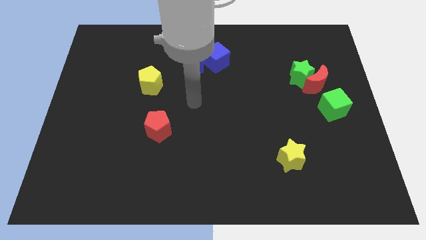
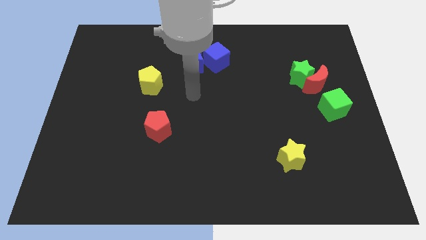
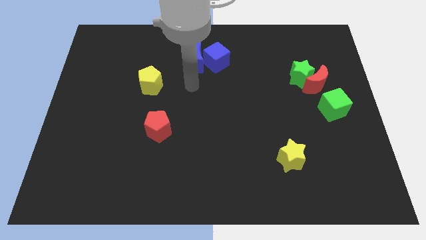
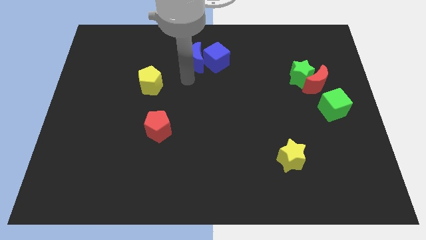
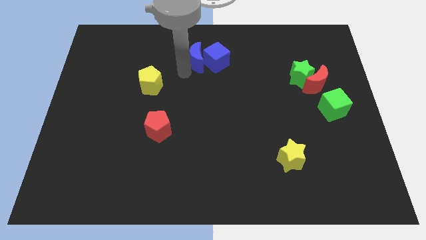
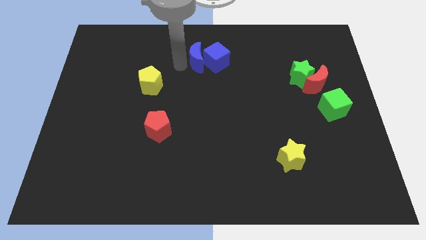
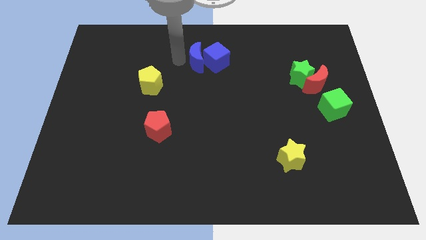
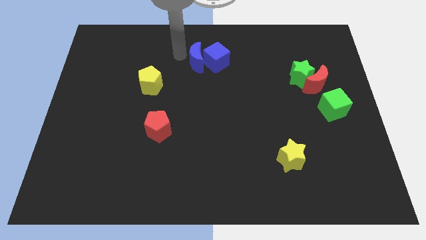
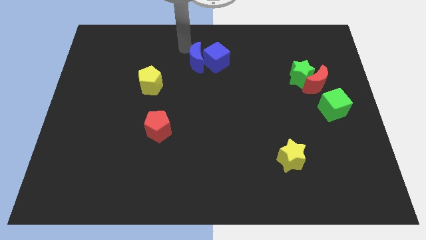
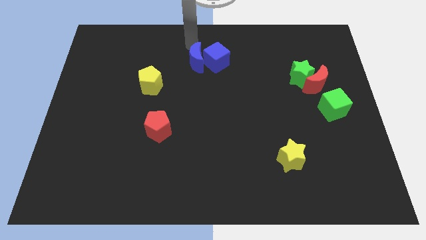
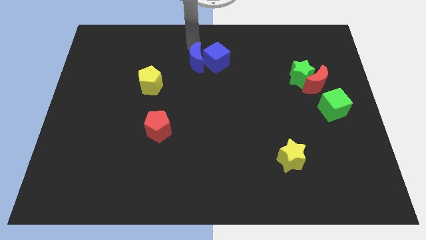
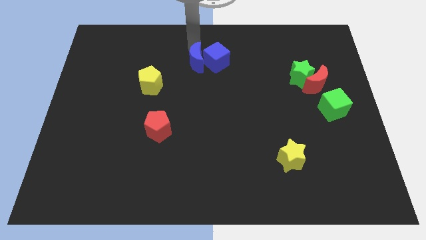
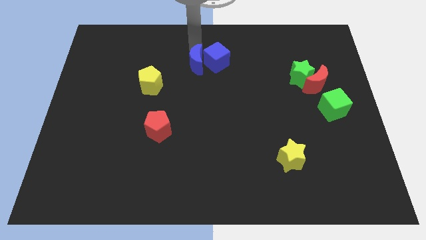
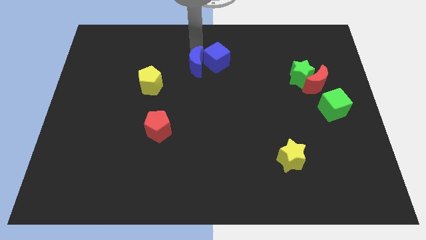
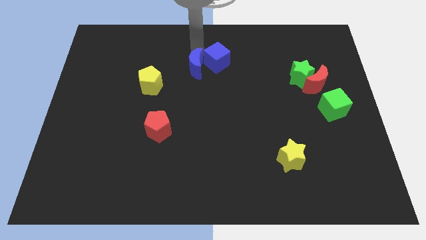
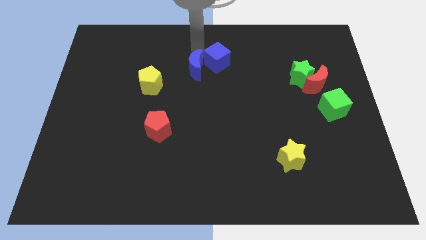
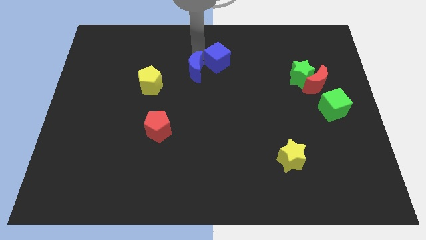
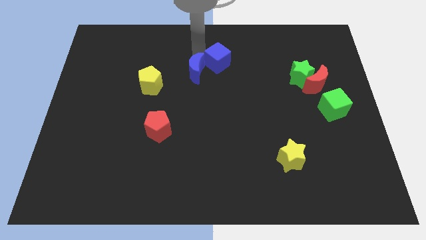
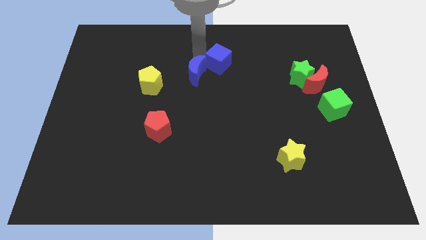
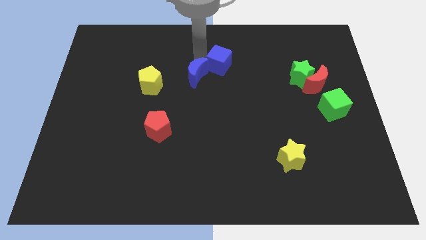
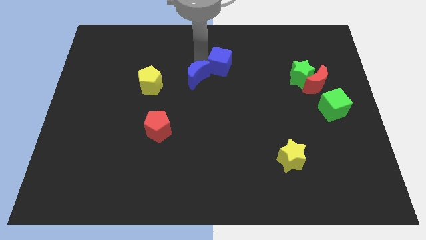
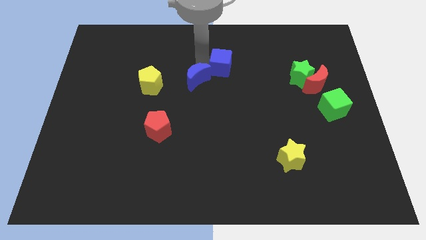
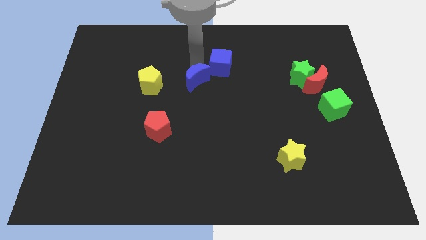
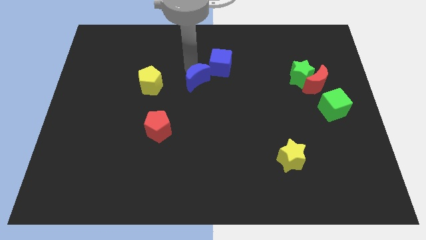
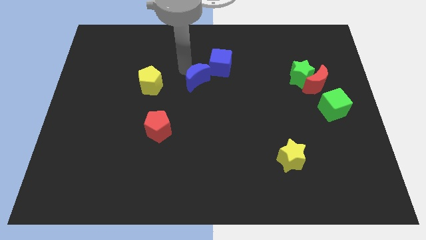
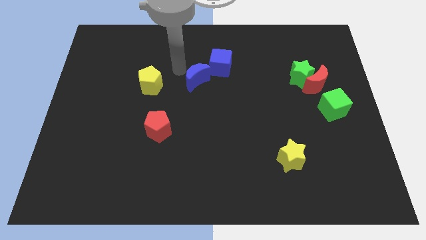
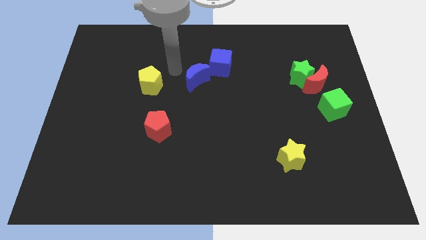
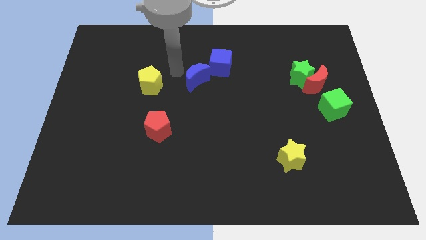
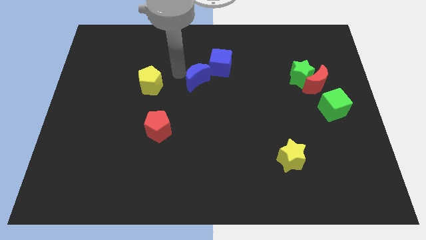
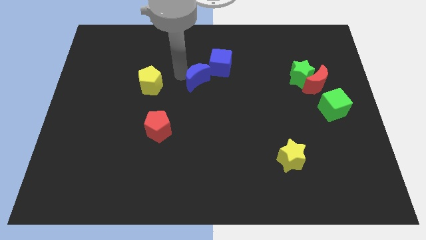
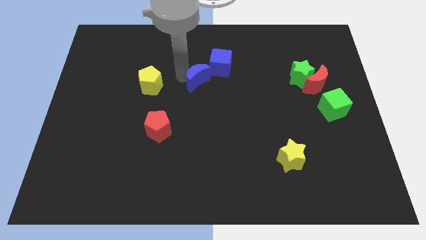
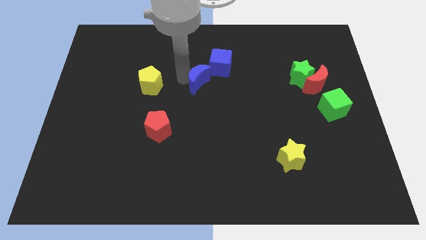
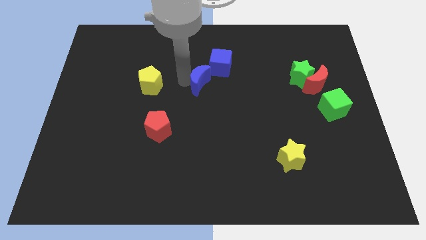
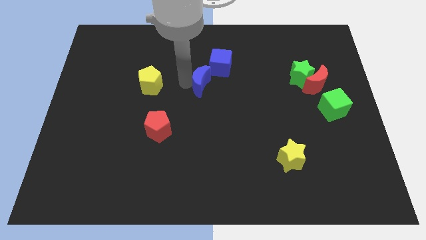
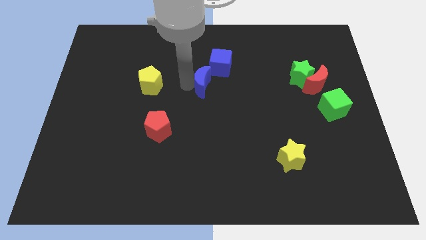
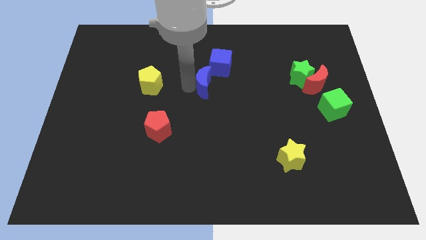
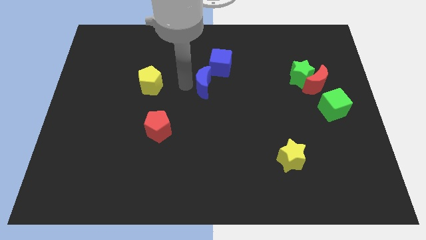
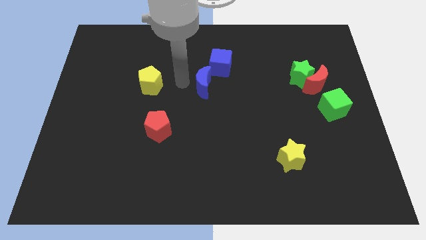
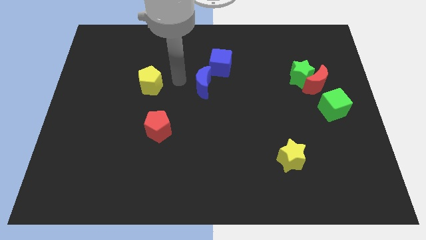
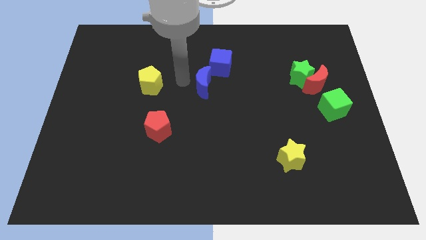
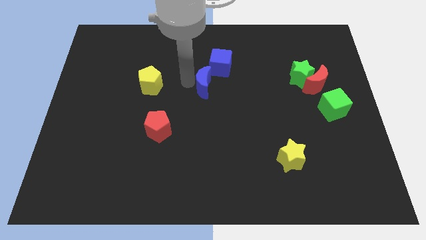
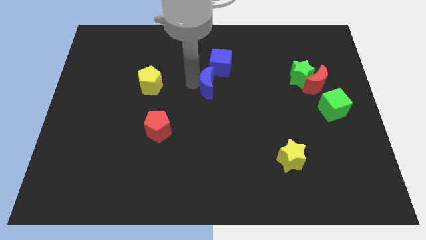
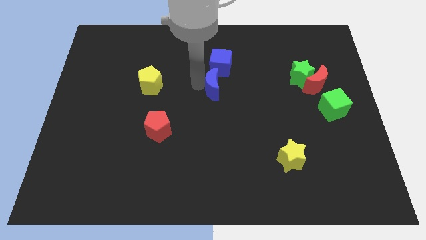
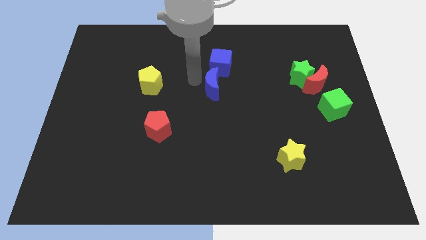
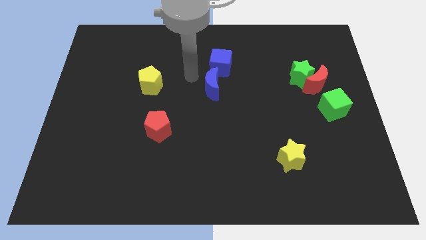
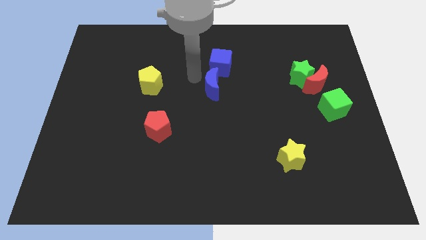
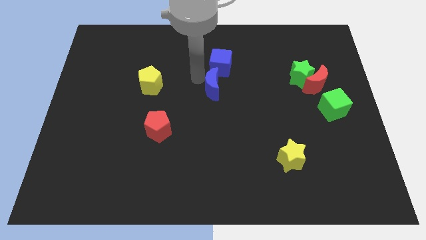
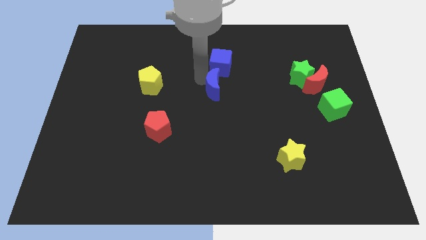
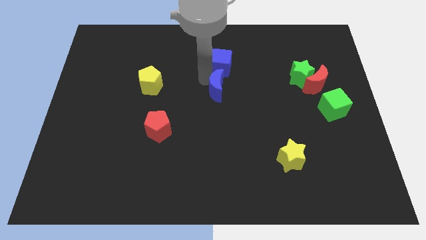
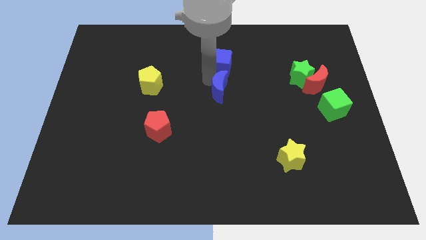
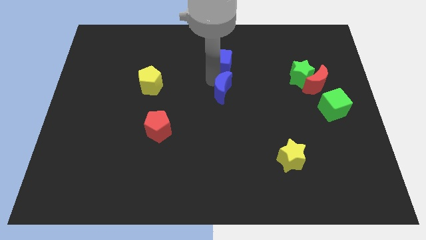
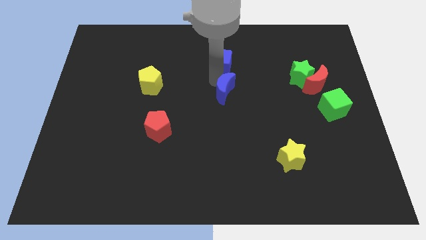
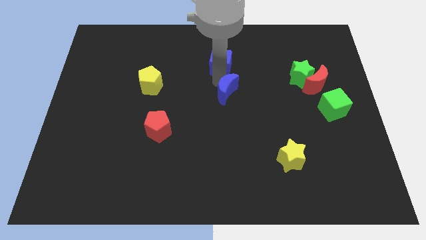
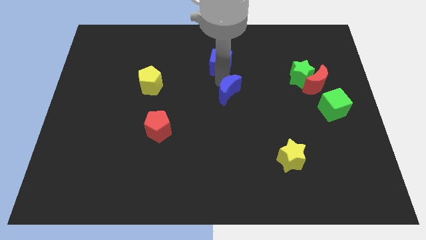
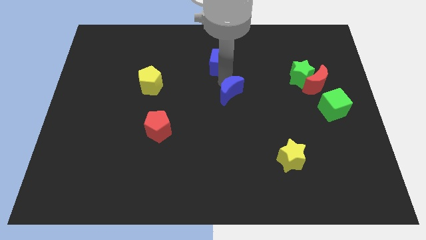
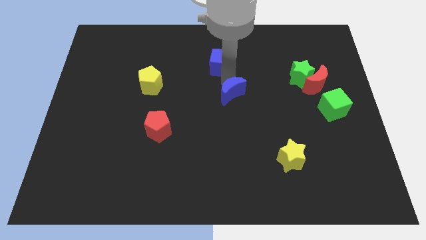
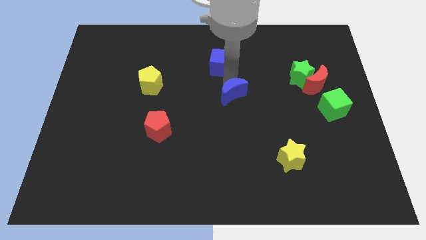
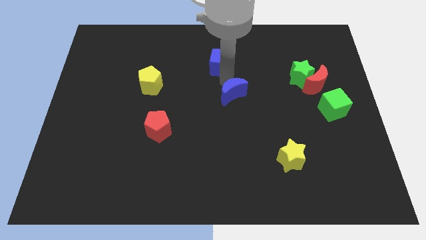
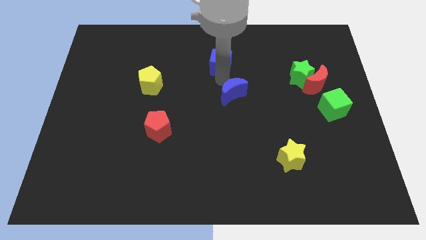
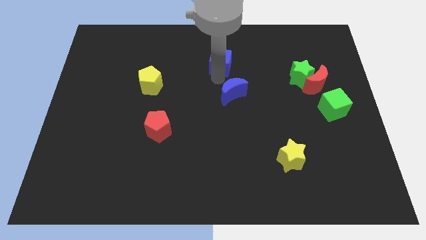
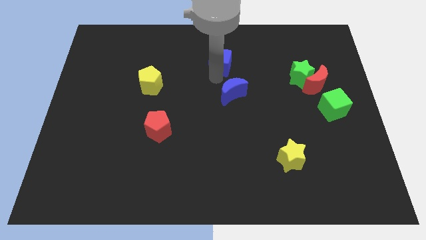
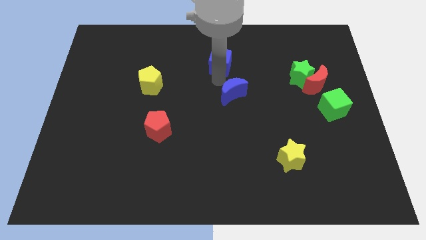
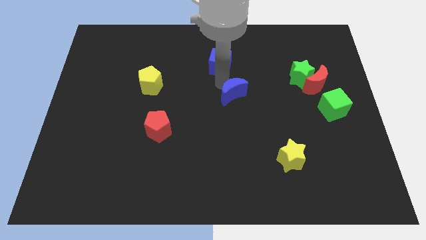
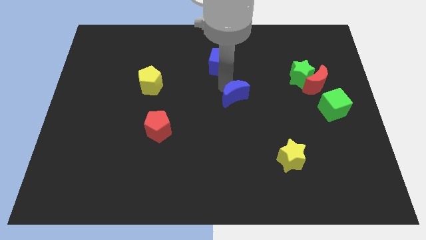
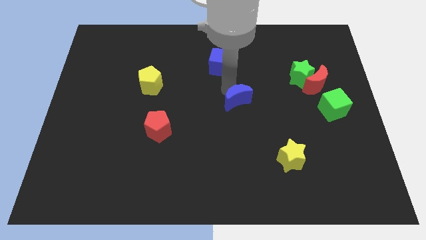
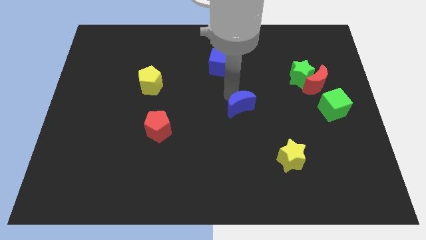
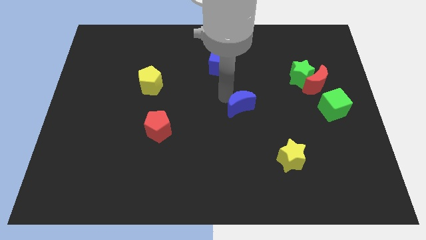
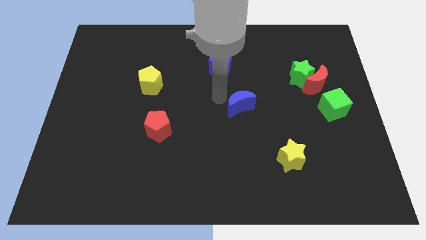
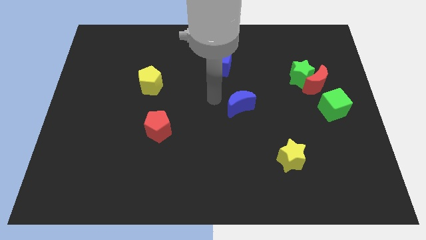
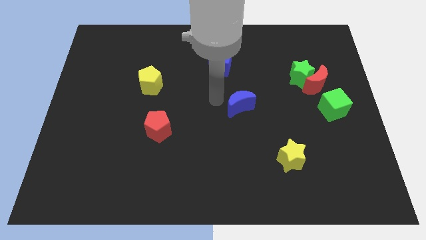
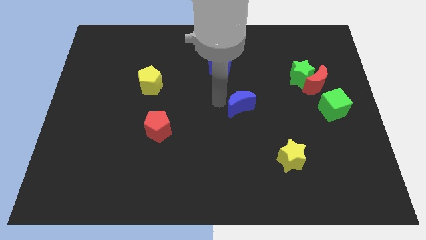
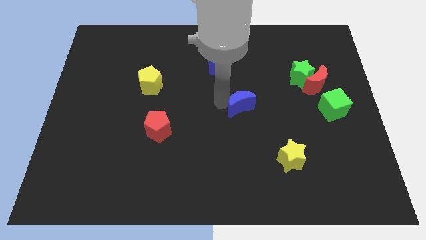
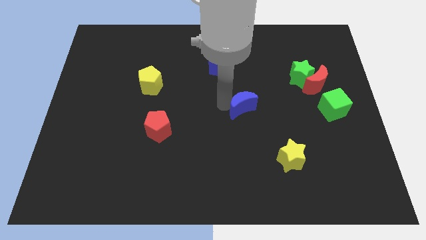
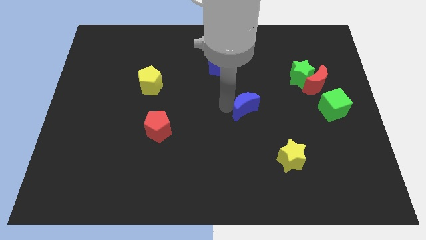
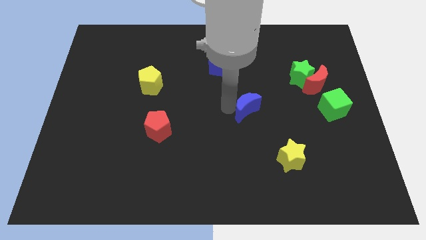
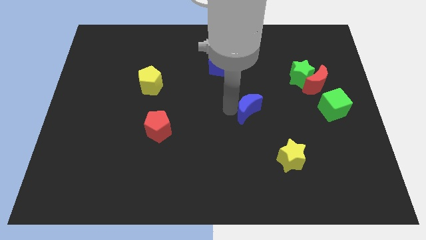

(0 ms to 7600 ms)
slide the blue moon diagonally down and to the right

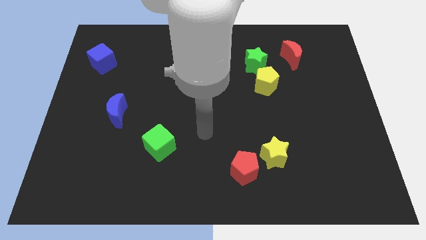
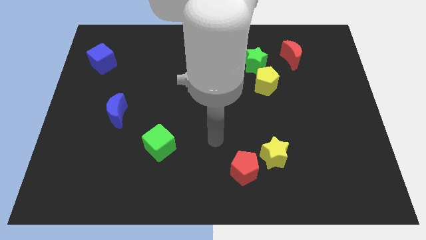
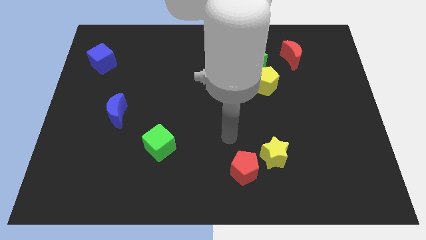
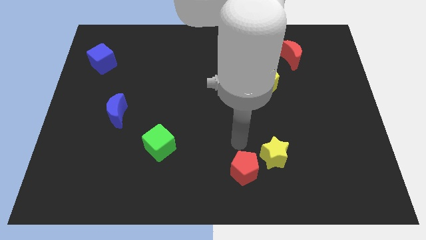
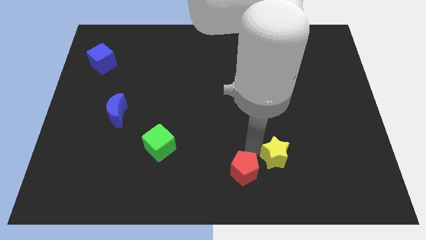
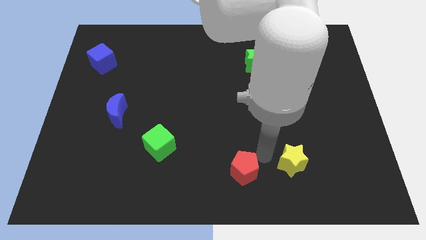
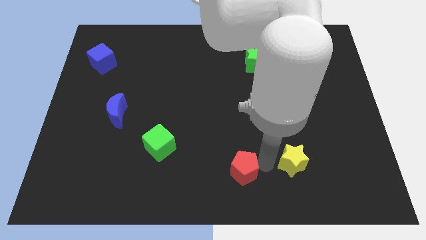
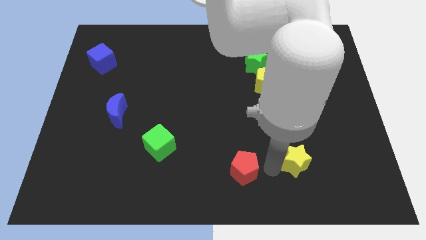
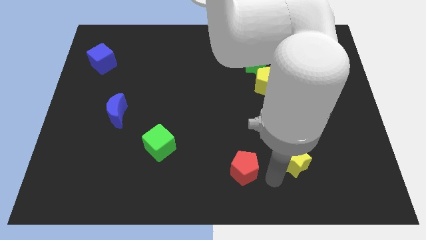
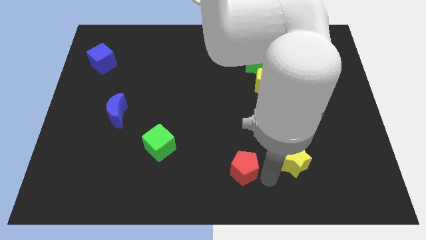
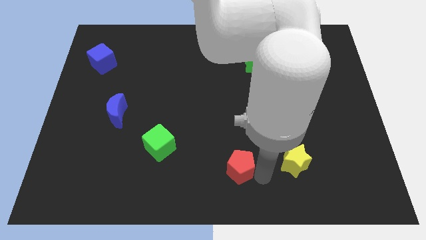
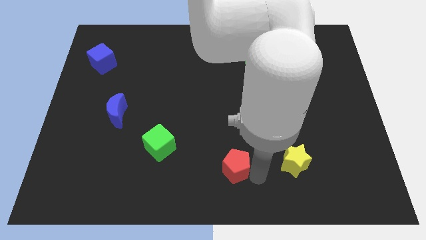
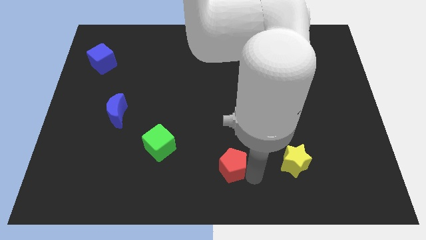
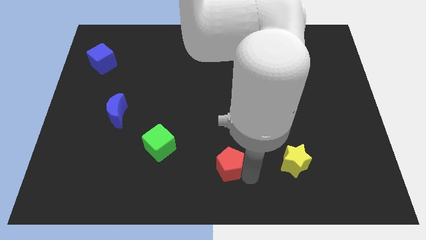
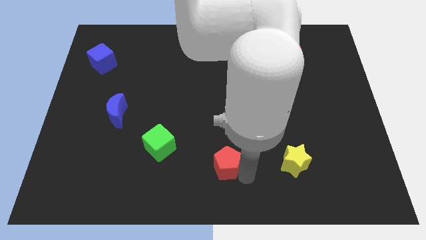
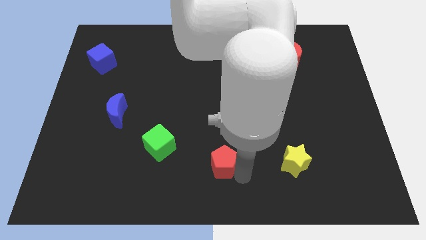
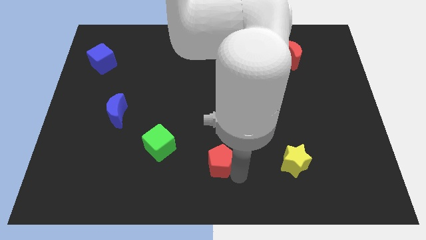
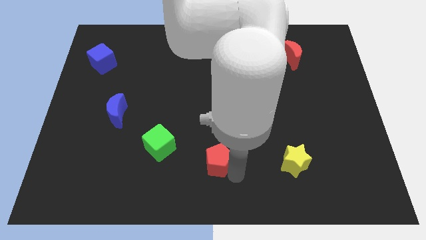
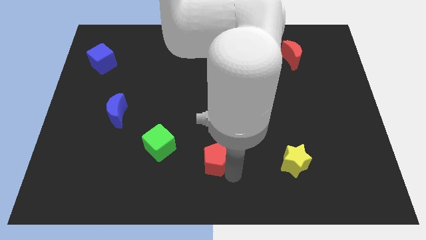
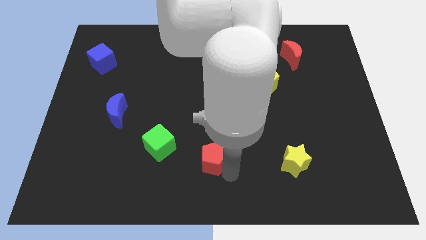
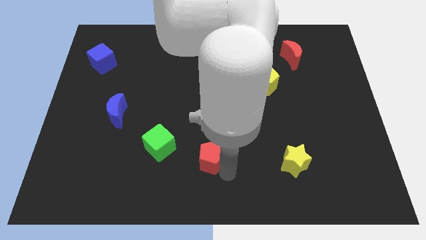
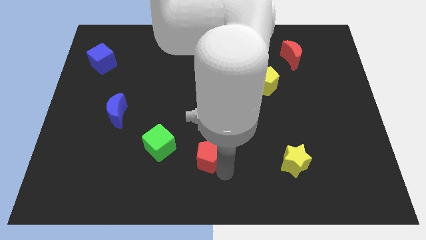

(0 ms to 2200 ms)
push the red pentagon a little up and then to the left
